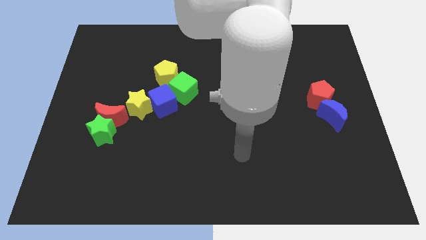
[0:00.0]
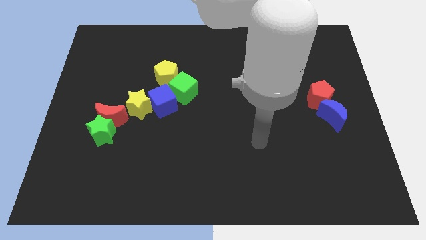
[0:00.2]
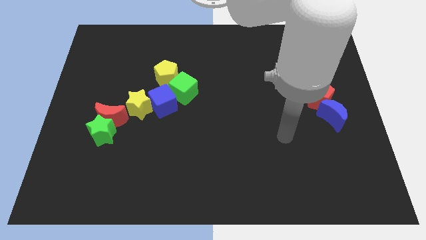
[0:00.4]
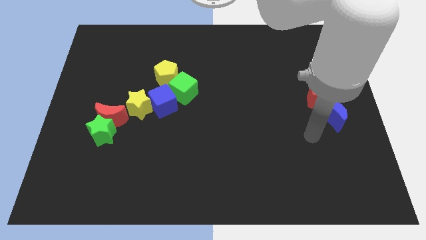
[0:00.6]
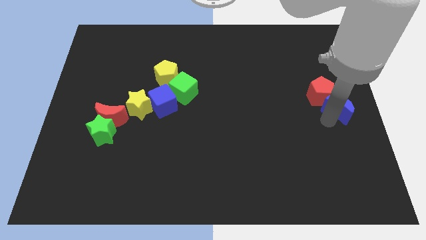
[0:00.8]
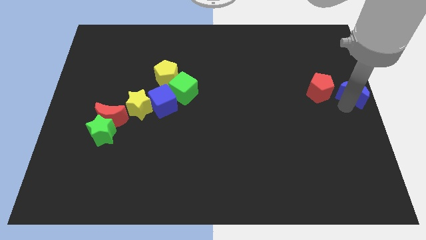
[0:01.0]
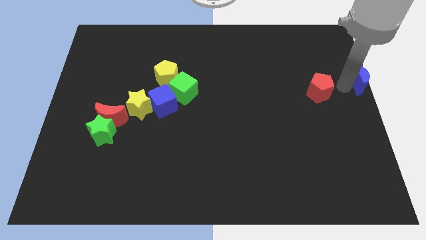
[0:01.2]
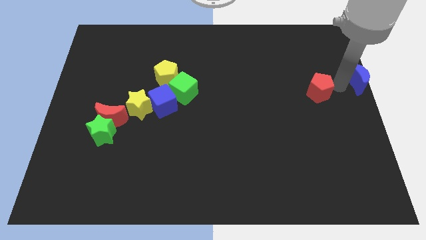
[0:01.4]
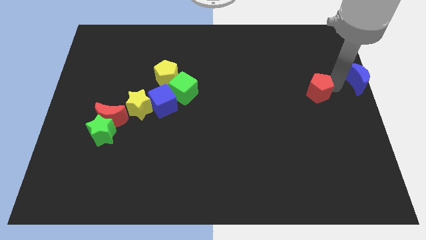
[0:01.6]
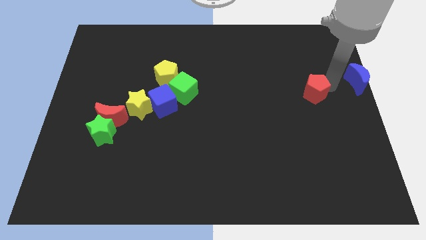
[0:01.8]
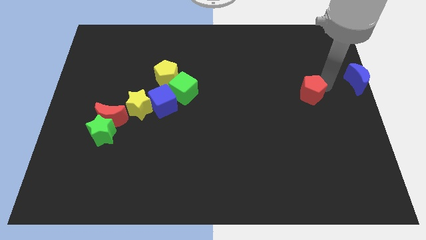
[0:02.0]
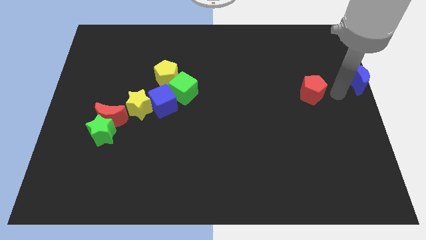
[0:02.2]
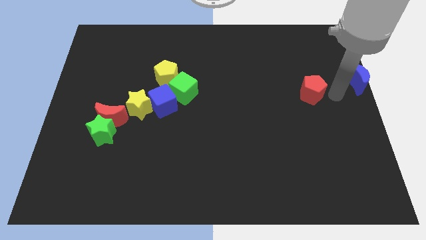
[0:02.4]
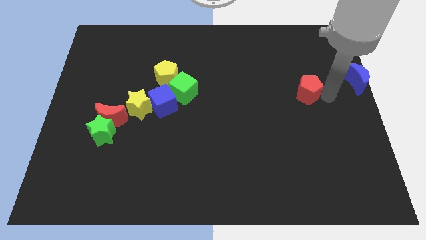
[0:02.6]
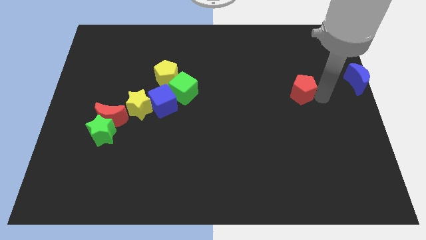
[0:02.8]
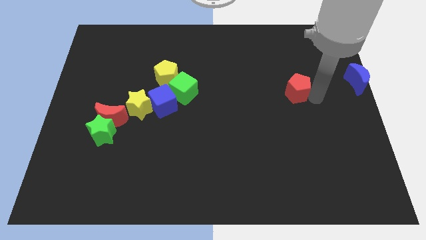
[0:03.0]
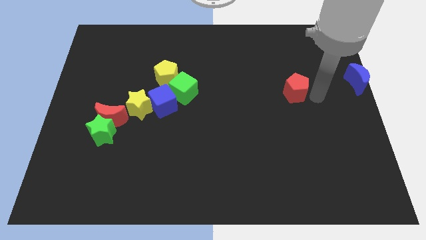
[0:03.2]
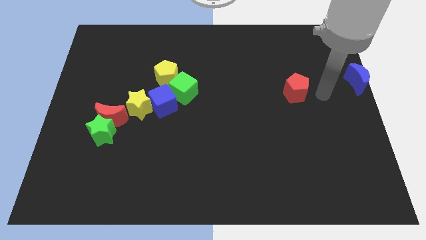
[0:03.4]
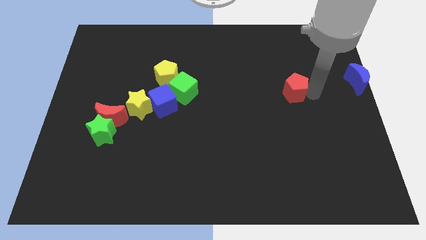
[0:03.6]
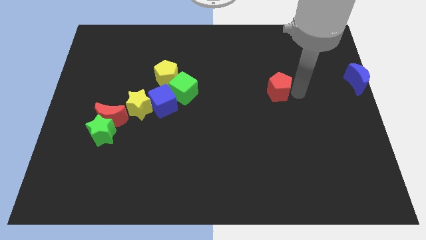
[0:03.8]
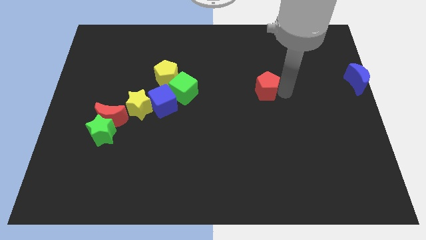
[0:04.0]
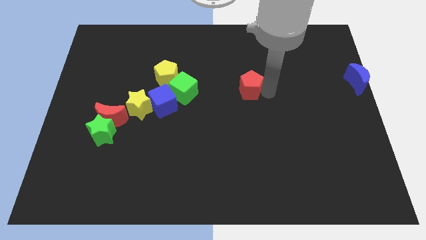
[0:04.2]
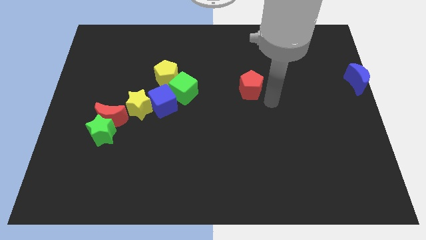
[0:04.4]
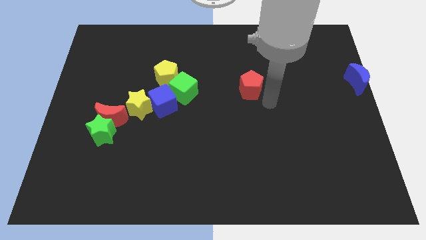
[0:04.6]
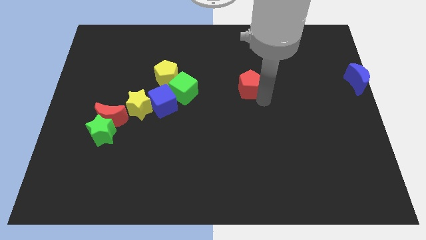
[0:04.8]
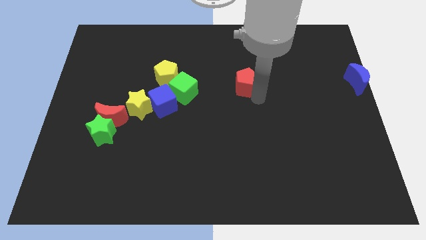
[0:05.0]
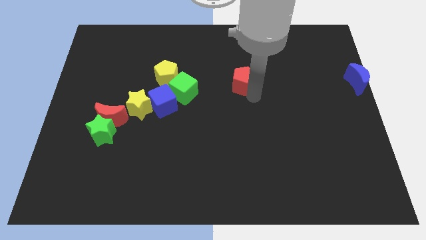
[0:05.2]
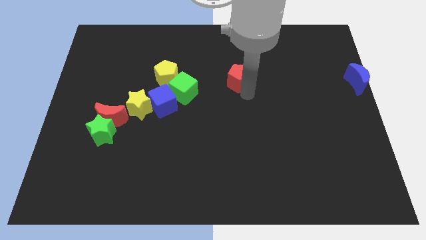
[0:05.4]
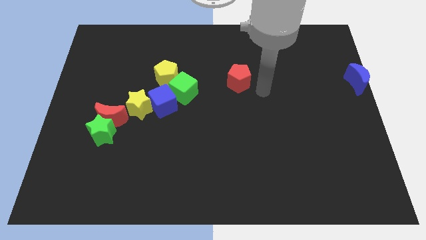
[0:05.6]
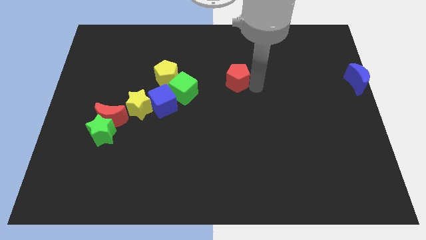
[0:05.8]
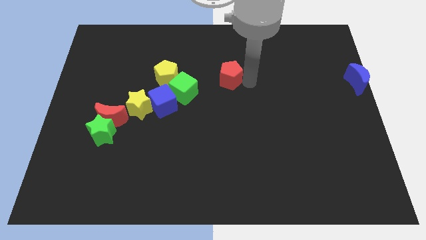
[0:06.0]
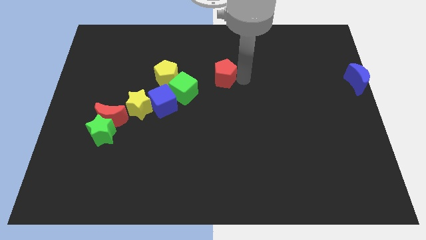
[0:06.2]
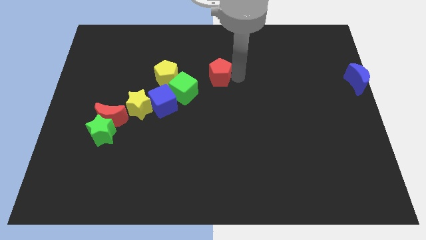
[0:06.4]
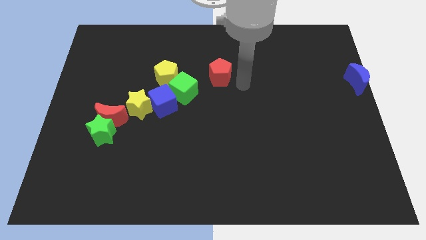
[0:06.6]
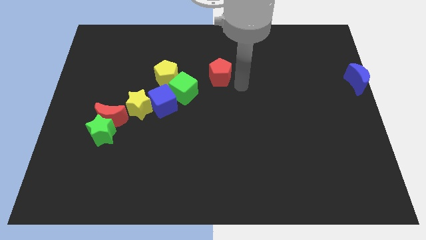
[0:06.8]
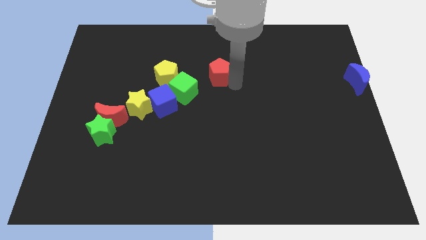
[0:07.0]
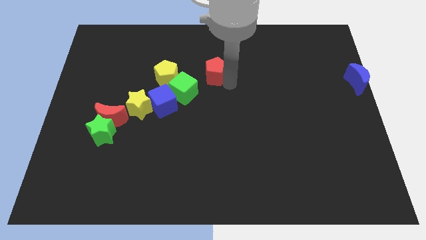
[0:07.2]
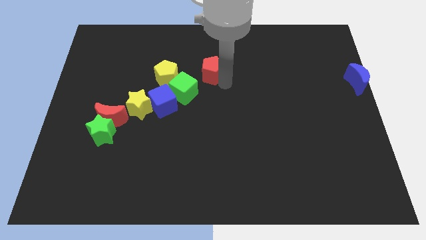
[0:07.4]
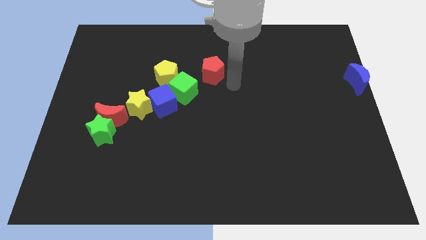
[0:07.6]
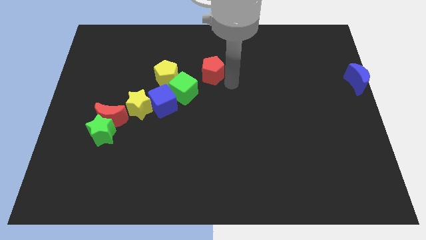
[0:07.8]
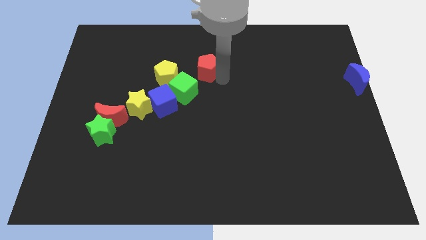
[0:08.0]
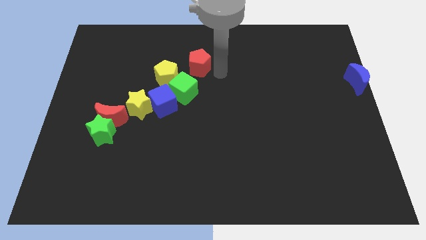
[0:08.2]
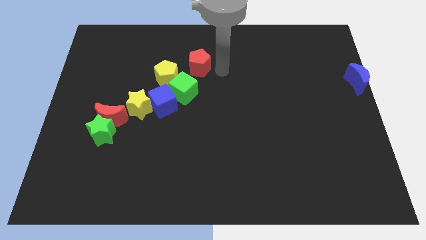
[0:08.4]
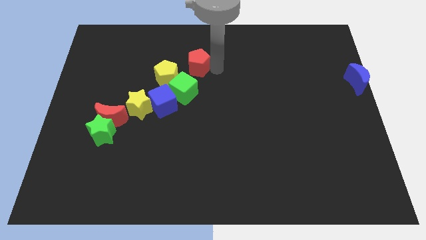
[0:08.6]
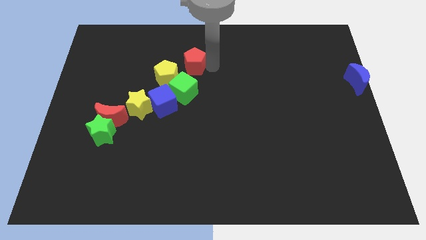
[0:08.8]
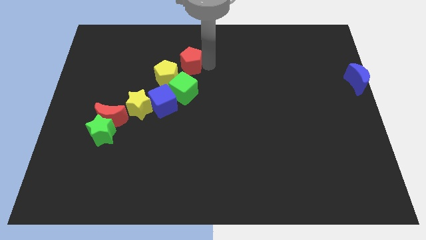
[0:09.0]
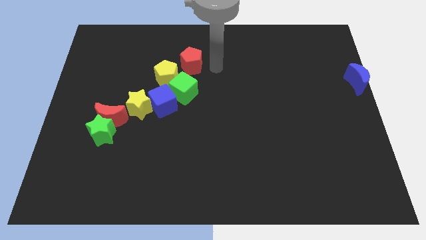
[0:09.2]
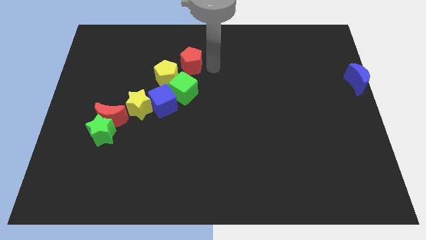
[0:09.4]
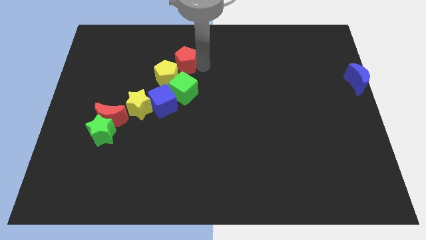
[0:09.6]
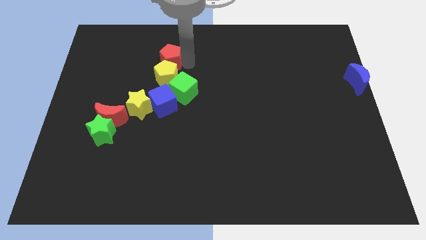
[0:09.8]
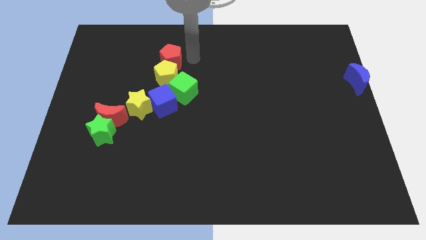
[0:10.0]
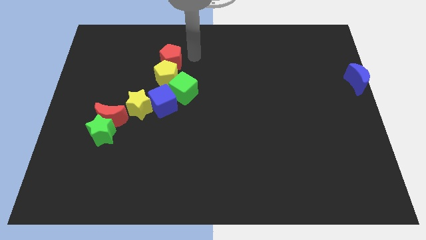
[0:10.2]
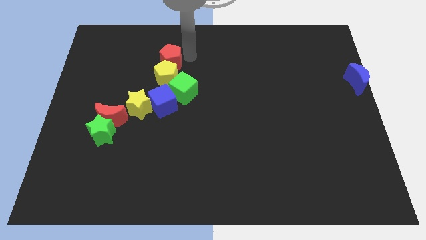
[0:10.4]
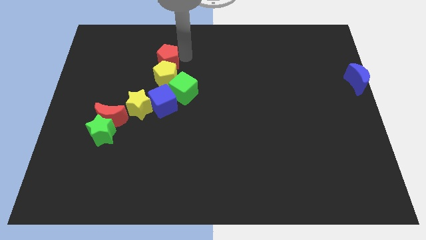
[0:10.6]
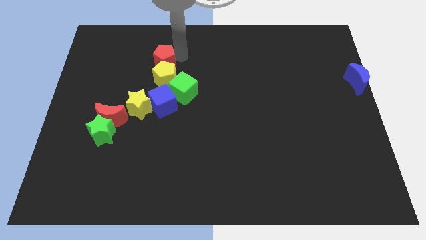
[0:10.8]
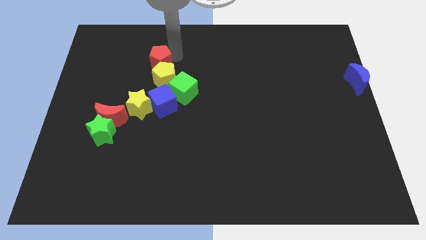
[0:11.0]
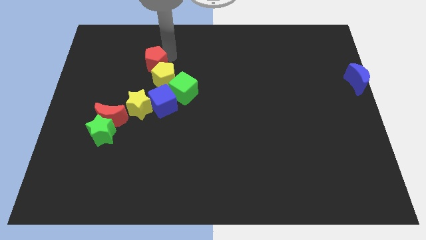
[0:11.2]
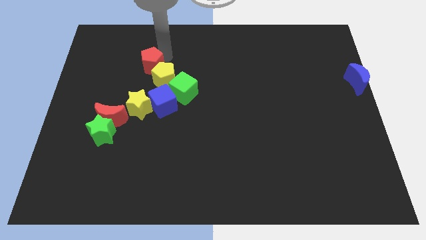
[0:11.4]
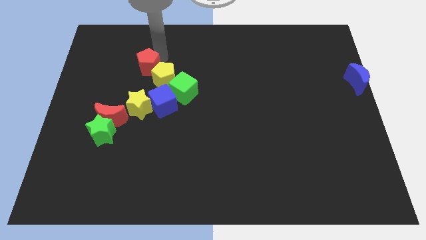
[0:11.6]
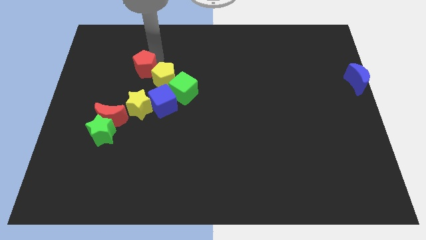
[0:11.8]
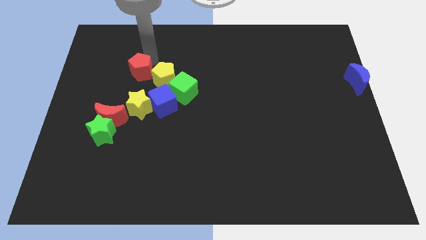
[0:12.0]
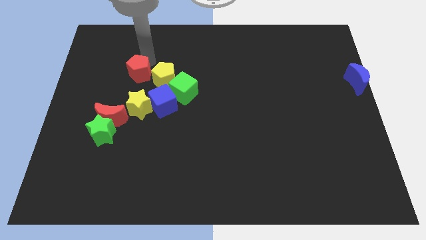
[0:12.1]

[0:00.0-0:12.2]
push the red pentagon diagonally up and to the left of the blue cube

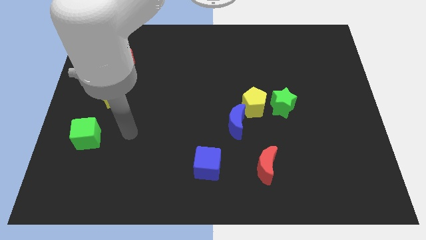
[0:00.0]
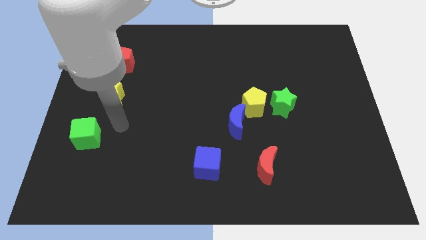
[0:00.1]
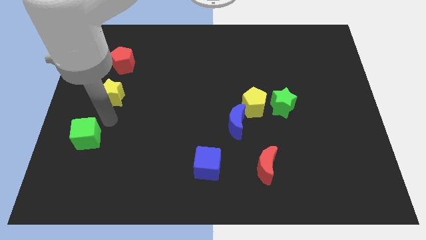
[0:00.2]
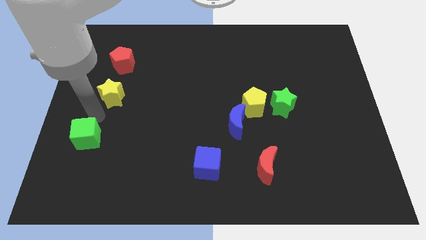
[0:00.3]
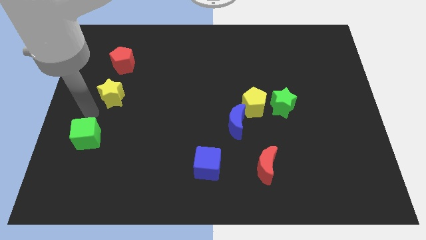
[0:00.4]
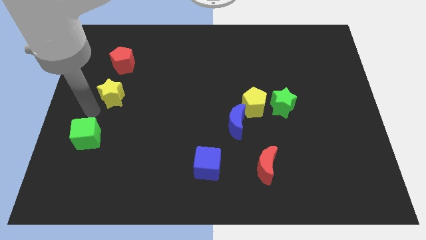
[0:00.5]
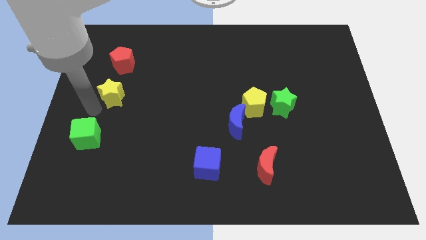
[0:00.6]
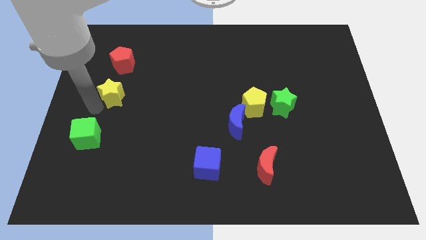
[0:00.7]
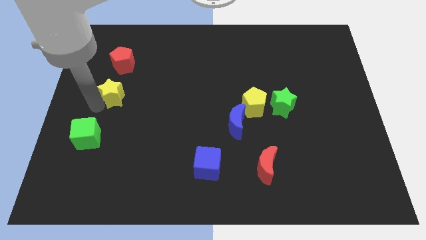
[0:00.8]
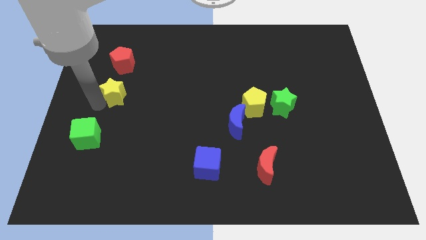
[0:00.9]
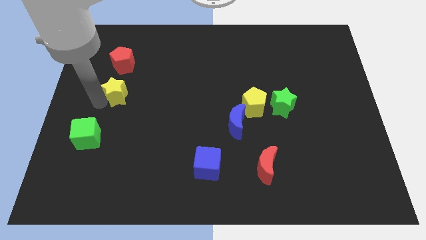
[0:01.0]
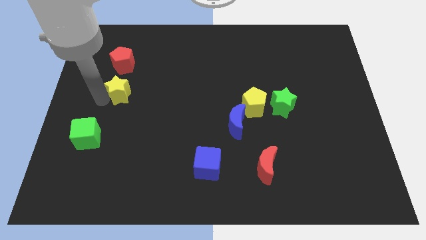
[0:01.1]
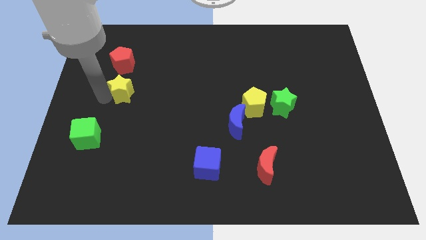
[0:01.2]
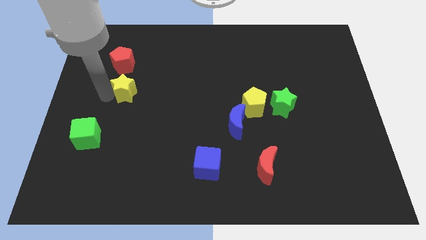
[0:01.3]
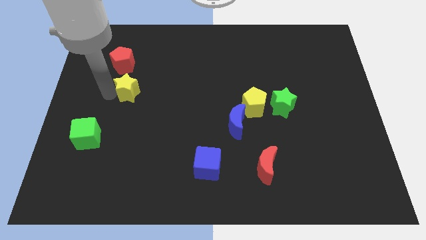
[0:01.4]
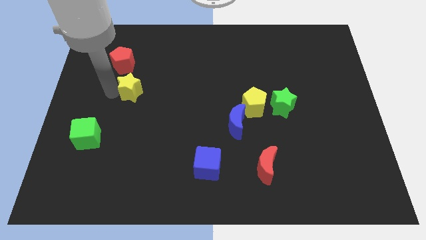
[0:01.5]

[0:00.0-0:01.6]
move the yellow star to the bottom right of the red pentagon
